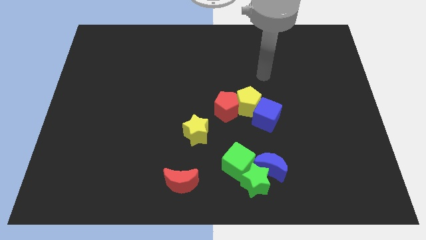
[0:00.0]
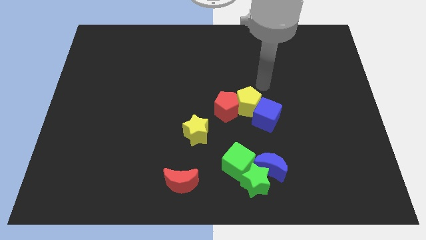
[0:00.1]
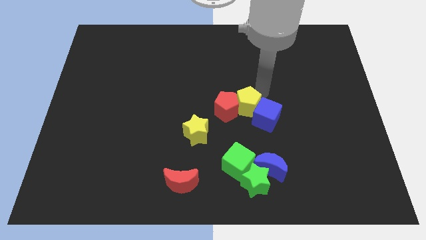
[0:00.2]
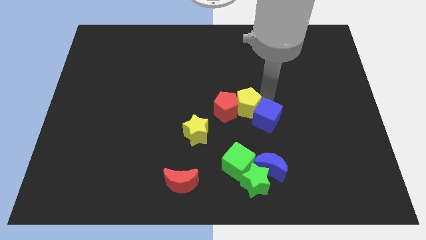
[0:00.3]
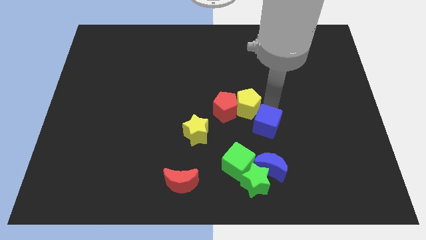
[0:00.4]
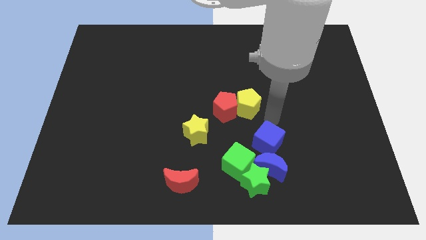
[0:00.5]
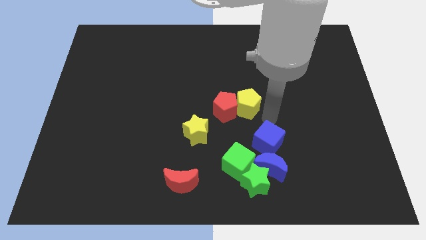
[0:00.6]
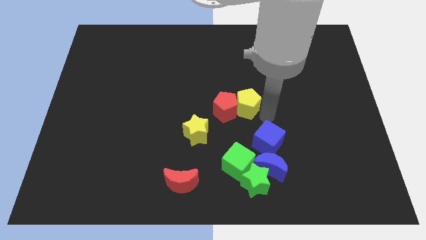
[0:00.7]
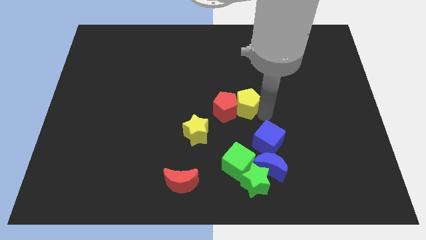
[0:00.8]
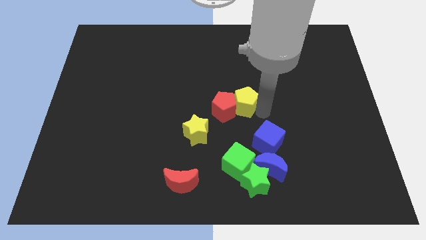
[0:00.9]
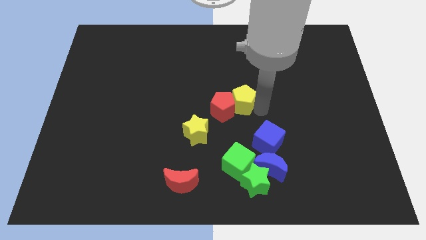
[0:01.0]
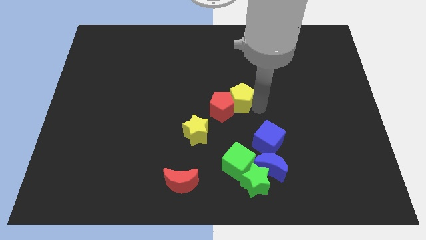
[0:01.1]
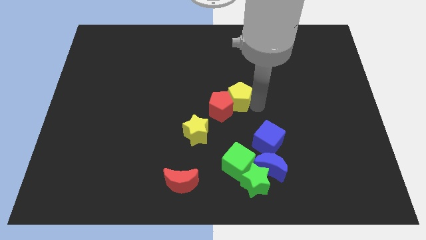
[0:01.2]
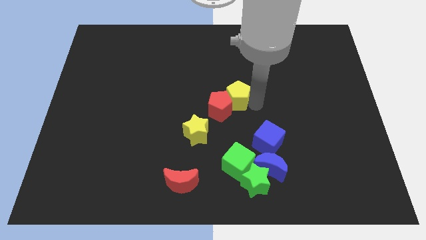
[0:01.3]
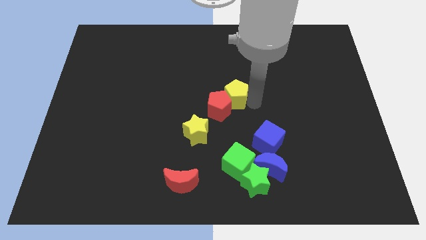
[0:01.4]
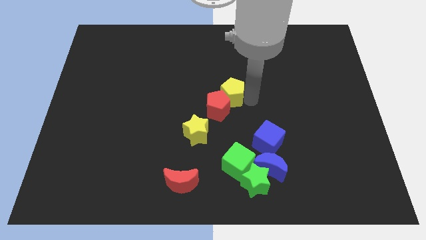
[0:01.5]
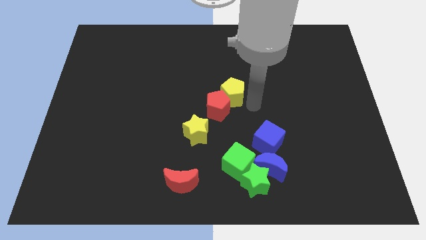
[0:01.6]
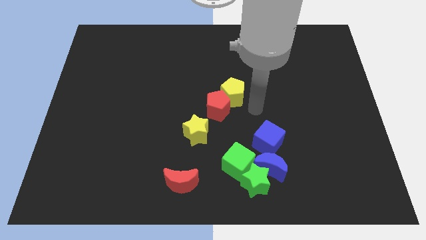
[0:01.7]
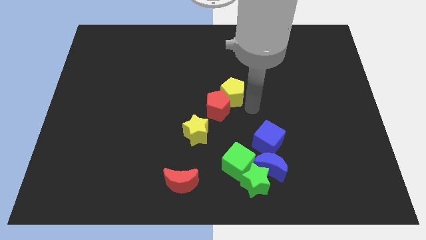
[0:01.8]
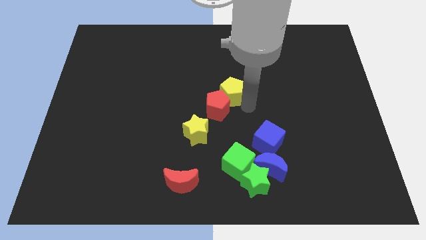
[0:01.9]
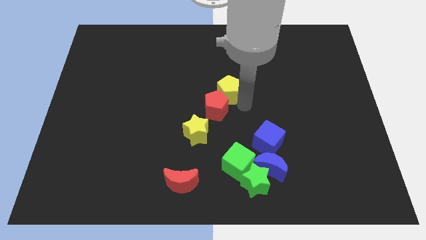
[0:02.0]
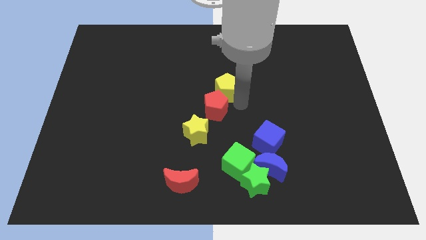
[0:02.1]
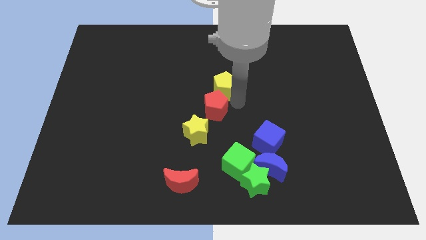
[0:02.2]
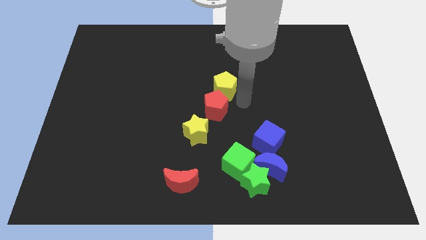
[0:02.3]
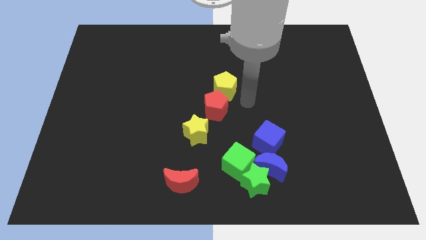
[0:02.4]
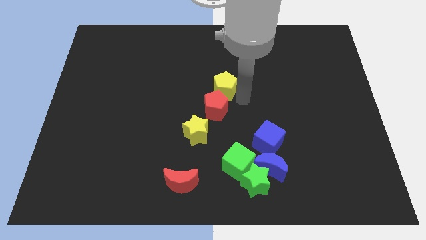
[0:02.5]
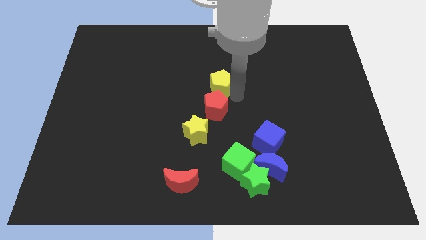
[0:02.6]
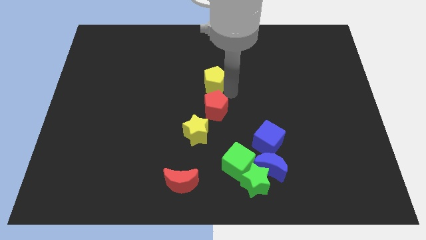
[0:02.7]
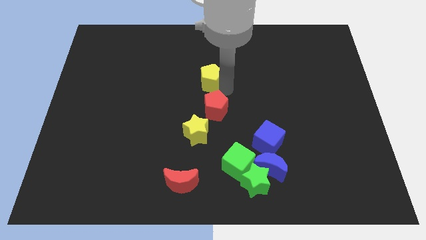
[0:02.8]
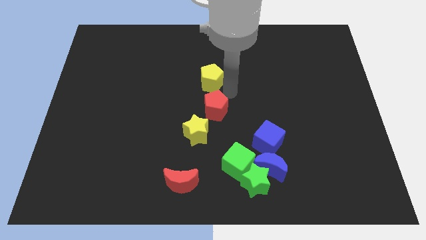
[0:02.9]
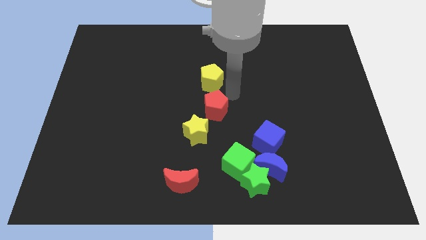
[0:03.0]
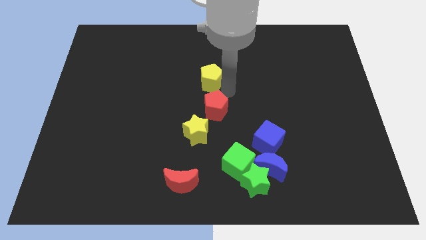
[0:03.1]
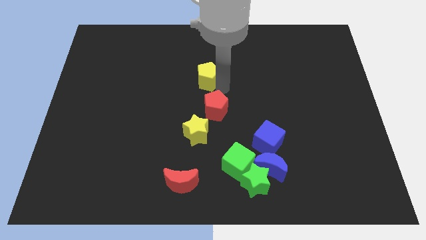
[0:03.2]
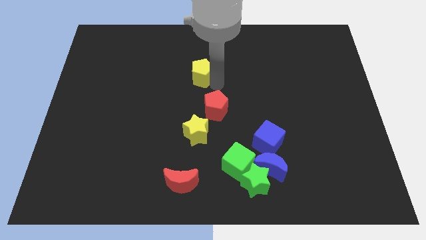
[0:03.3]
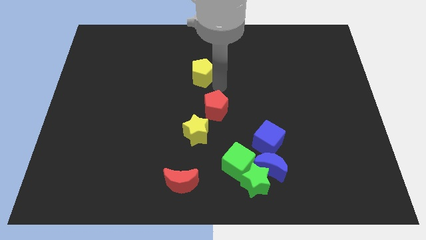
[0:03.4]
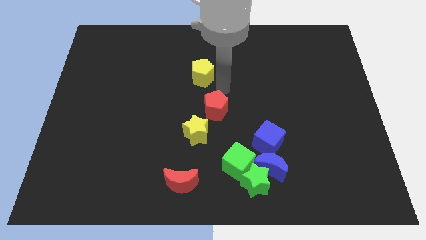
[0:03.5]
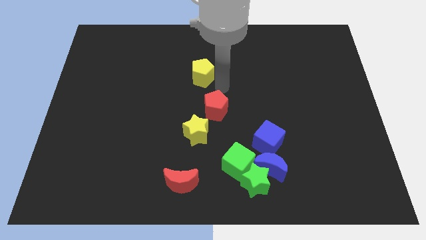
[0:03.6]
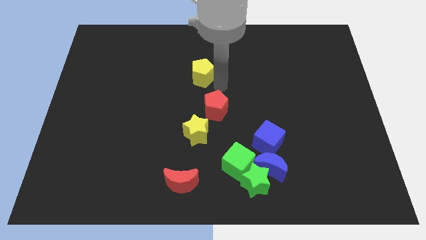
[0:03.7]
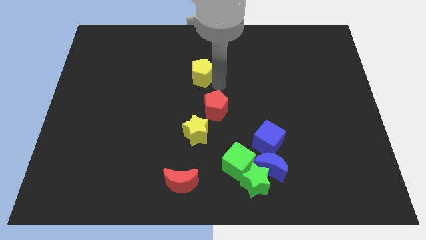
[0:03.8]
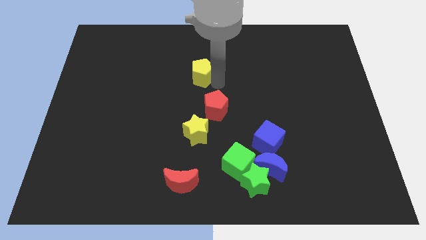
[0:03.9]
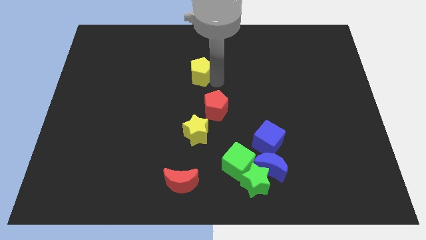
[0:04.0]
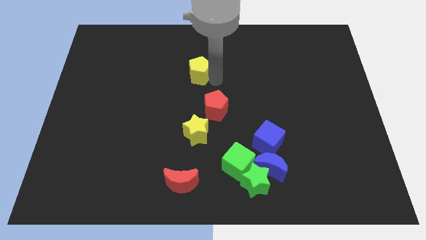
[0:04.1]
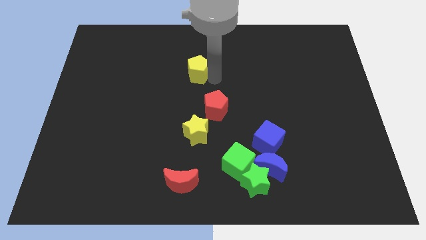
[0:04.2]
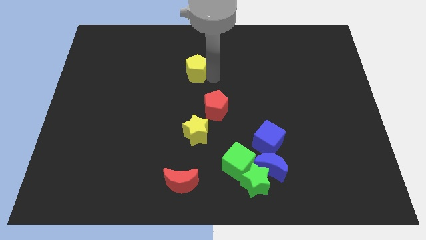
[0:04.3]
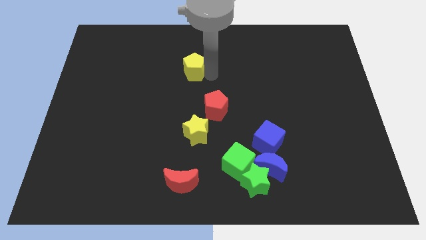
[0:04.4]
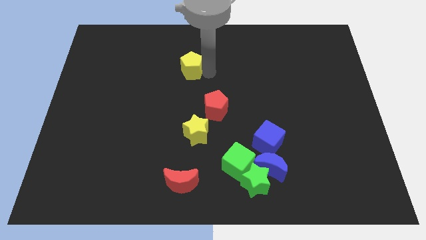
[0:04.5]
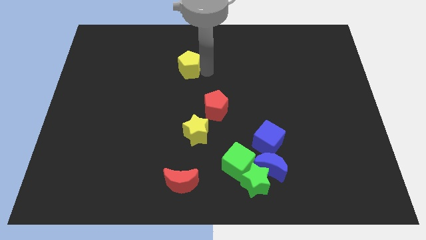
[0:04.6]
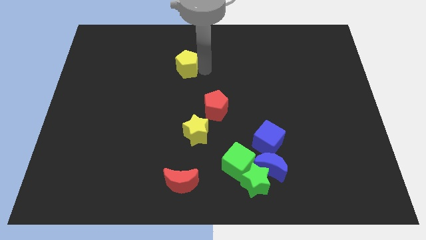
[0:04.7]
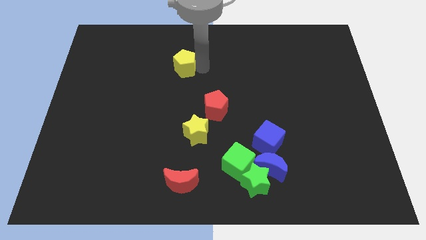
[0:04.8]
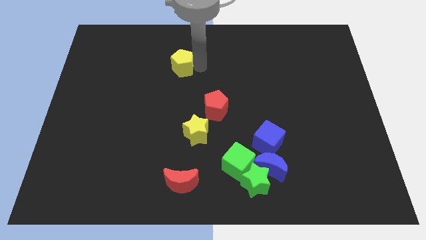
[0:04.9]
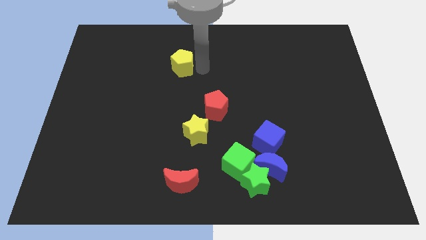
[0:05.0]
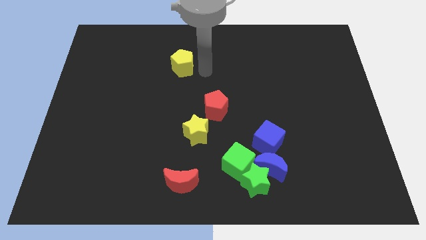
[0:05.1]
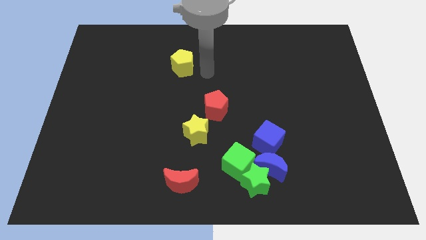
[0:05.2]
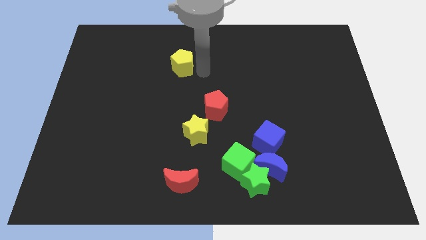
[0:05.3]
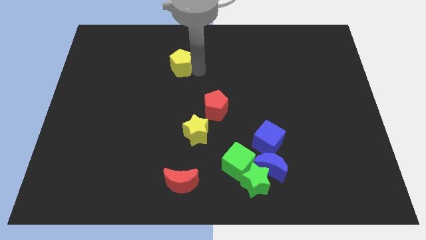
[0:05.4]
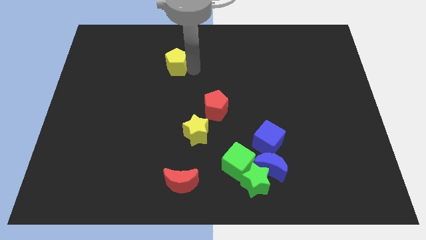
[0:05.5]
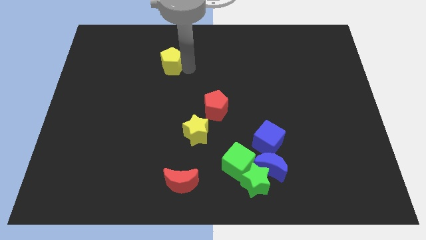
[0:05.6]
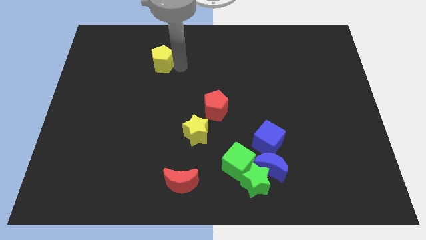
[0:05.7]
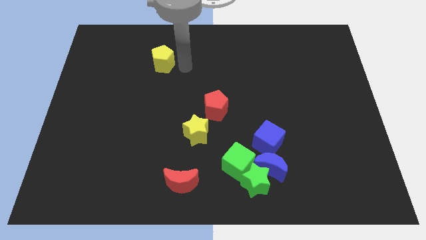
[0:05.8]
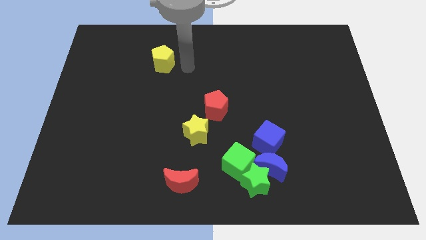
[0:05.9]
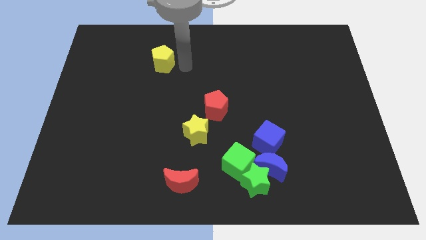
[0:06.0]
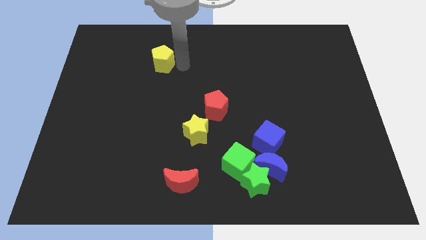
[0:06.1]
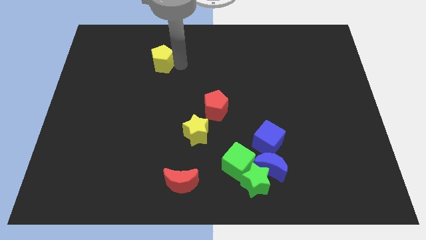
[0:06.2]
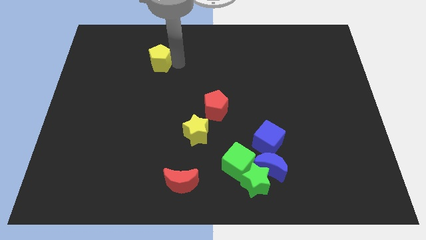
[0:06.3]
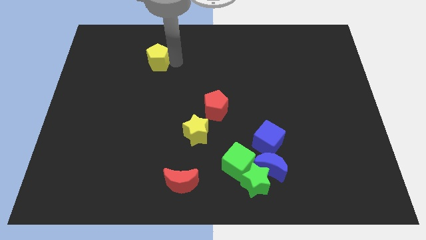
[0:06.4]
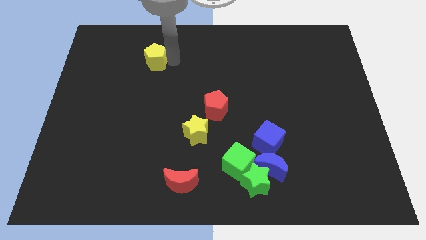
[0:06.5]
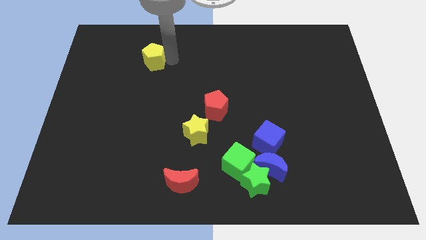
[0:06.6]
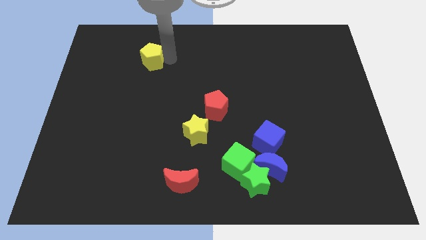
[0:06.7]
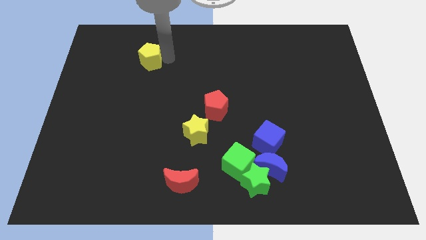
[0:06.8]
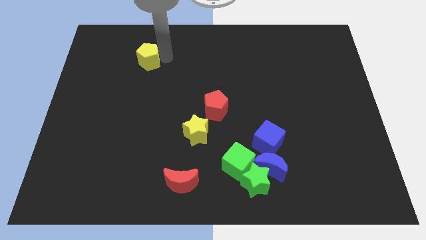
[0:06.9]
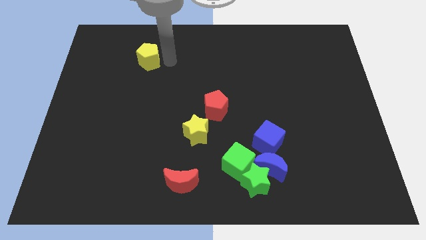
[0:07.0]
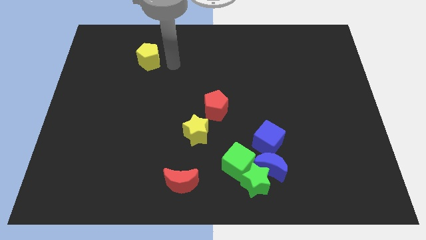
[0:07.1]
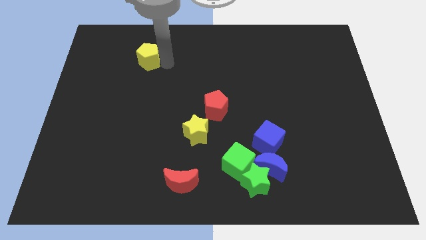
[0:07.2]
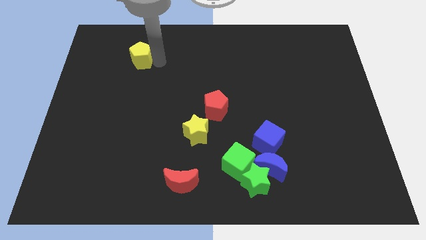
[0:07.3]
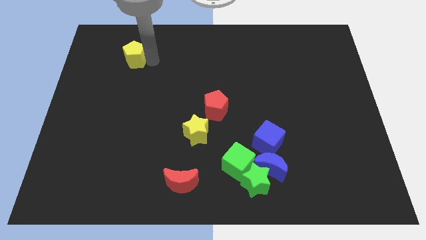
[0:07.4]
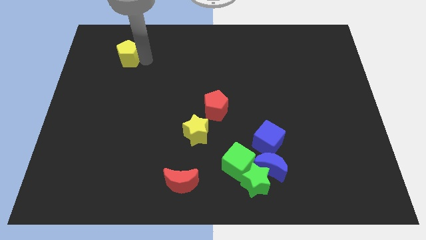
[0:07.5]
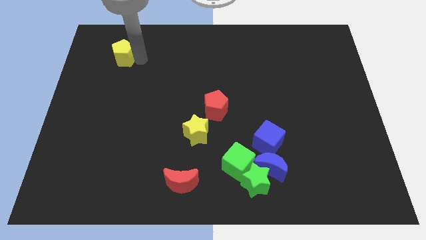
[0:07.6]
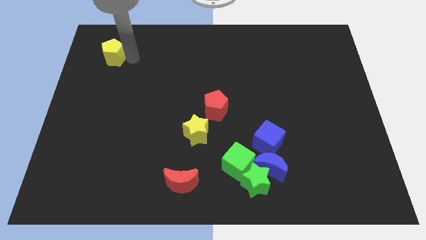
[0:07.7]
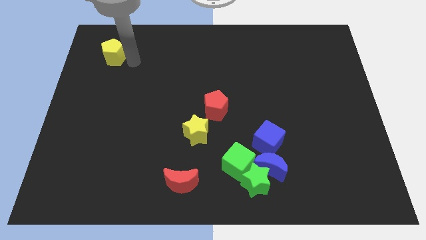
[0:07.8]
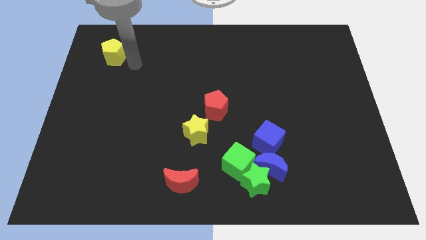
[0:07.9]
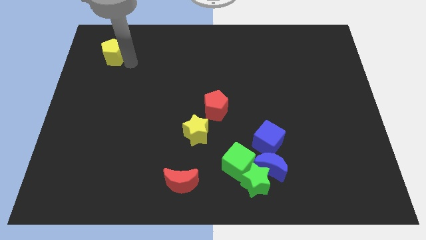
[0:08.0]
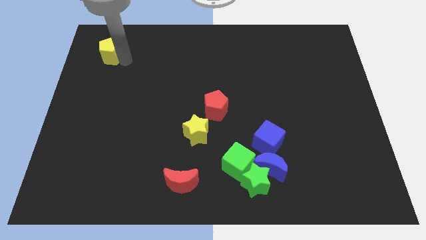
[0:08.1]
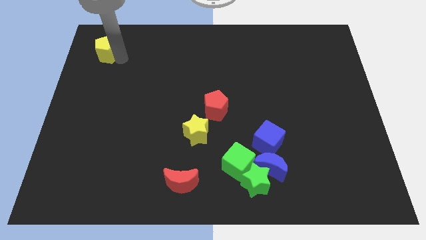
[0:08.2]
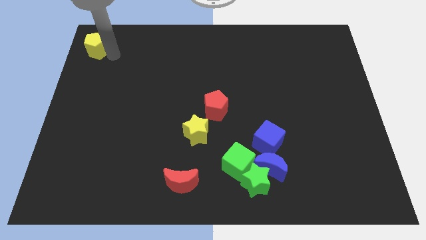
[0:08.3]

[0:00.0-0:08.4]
put the yellow pentagon to the top left
